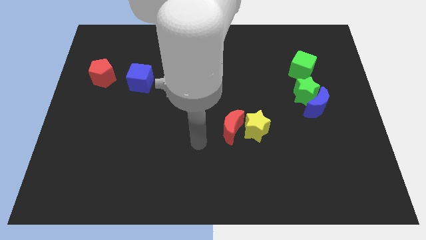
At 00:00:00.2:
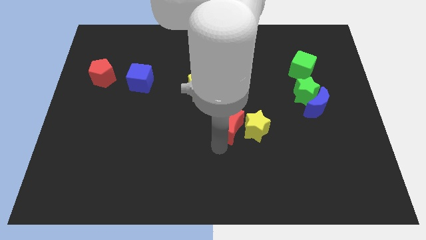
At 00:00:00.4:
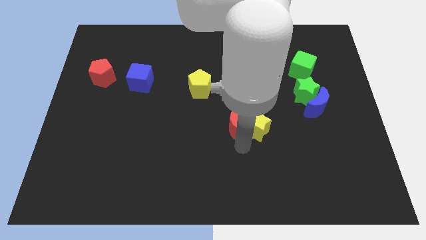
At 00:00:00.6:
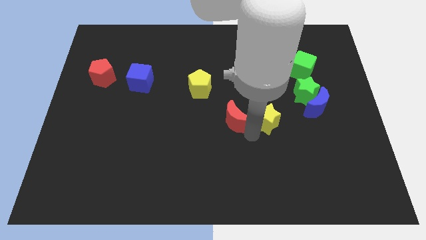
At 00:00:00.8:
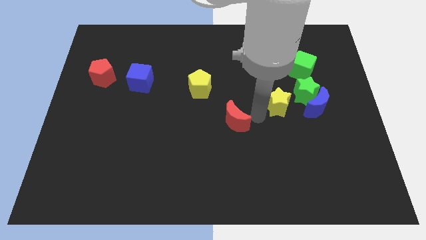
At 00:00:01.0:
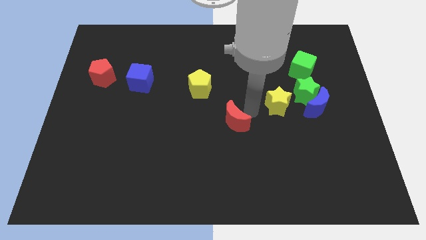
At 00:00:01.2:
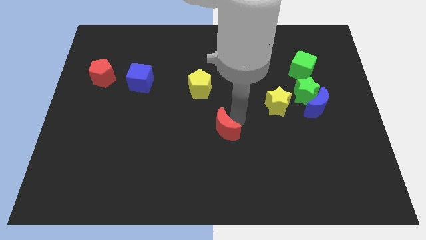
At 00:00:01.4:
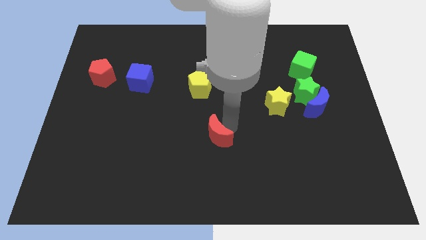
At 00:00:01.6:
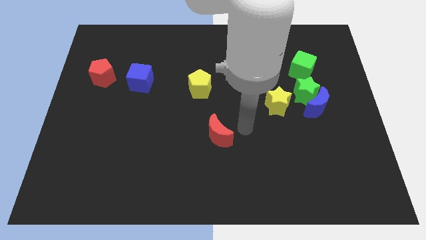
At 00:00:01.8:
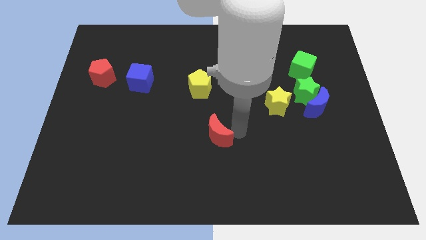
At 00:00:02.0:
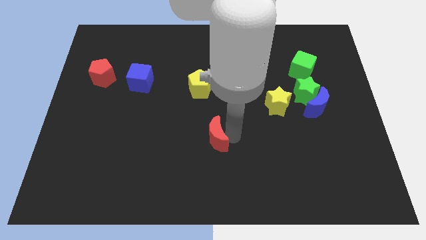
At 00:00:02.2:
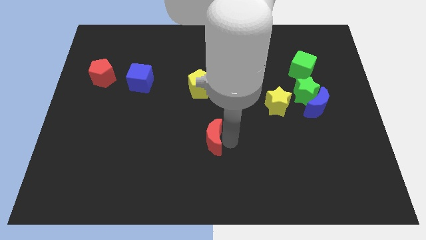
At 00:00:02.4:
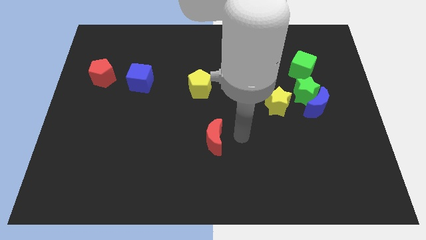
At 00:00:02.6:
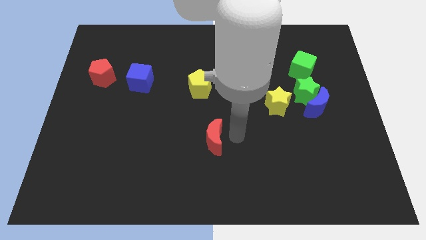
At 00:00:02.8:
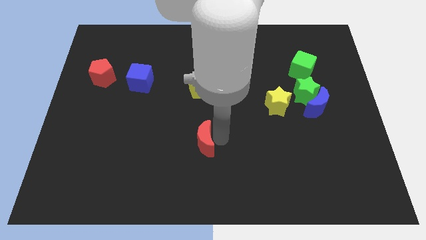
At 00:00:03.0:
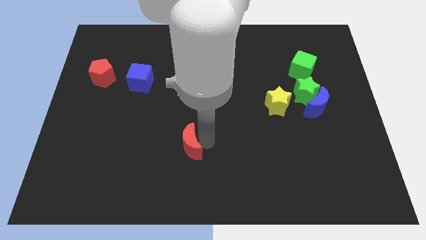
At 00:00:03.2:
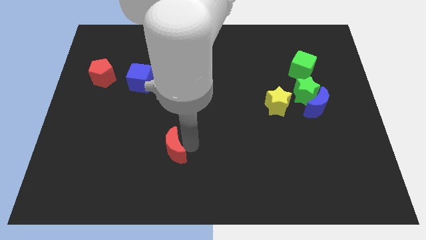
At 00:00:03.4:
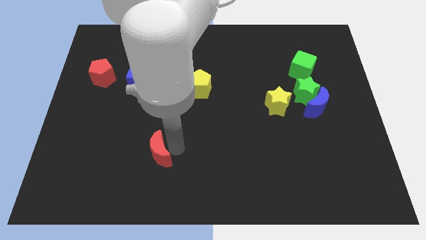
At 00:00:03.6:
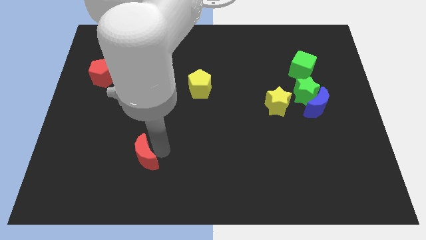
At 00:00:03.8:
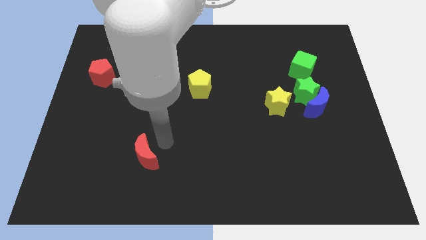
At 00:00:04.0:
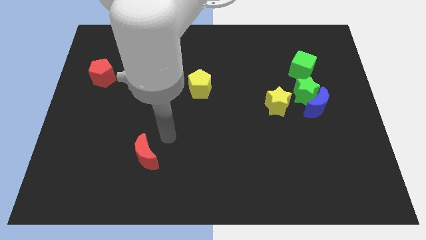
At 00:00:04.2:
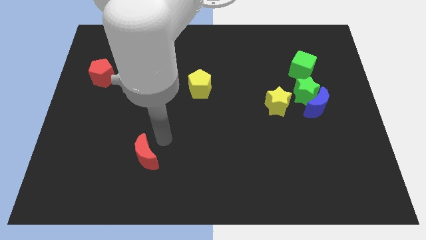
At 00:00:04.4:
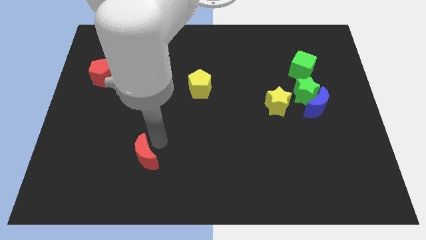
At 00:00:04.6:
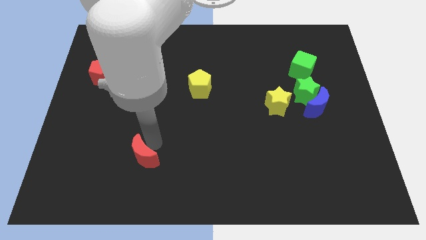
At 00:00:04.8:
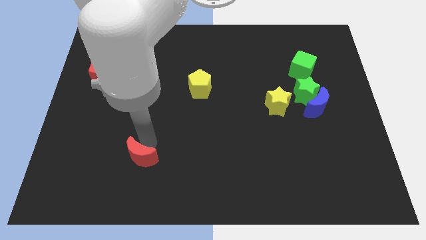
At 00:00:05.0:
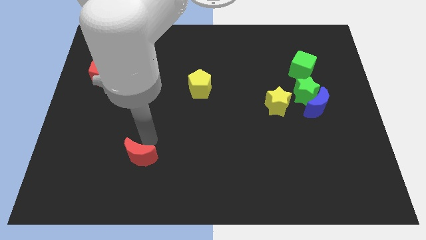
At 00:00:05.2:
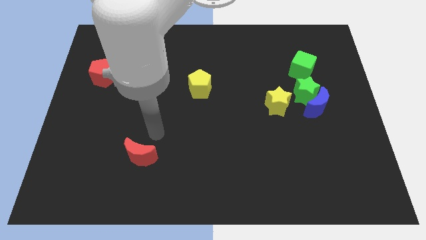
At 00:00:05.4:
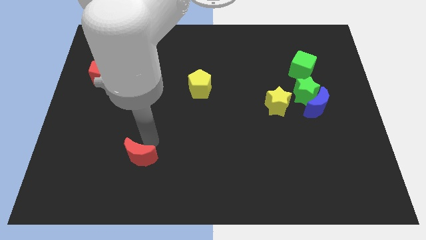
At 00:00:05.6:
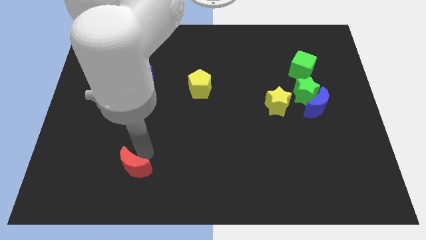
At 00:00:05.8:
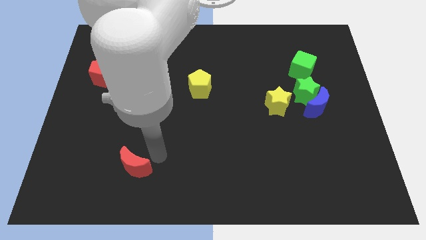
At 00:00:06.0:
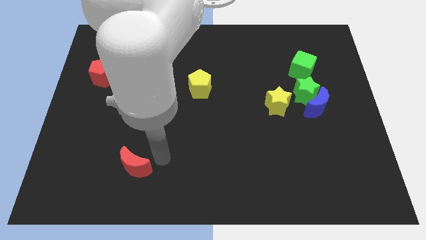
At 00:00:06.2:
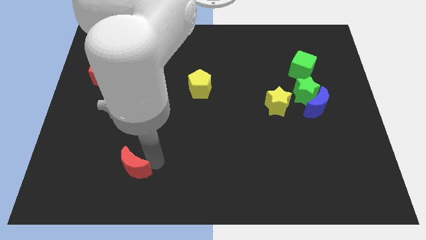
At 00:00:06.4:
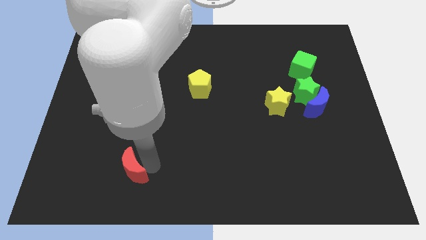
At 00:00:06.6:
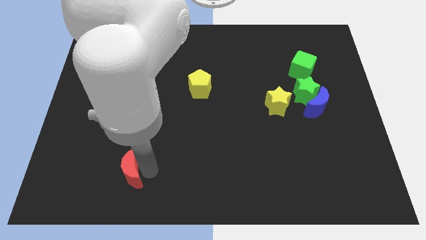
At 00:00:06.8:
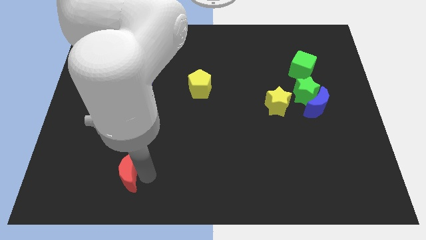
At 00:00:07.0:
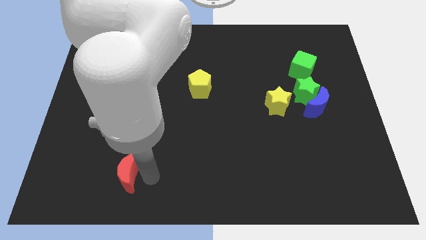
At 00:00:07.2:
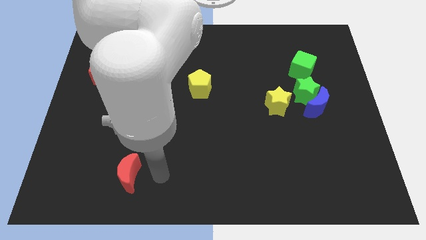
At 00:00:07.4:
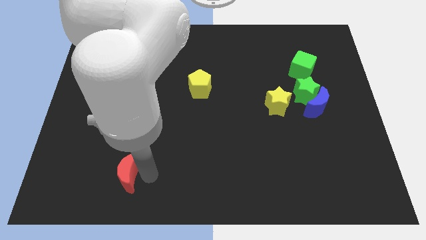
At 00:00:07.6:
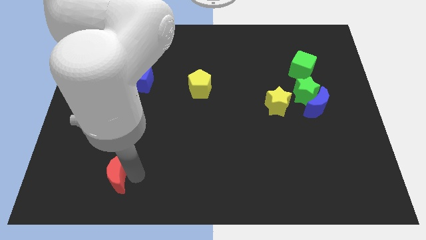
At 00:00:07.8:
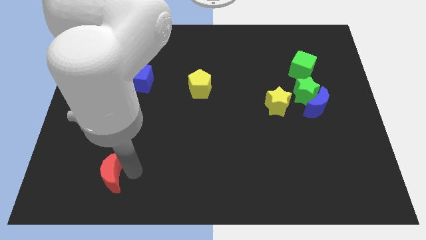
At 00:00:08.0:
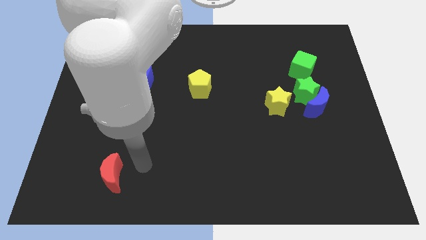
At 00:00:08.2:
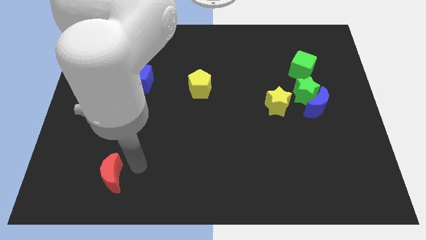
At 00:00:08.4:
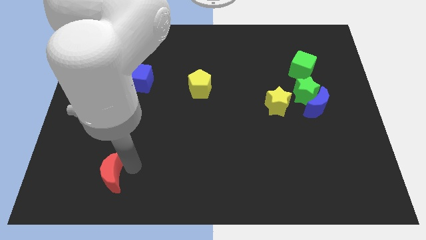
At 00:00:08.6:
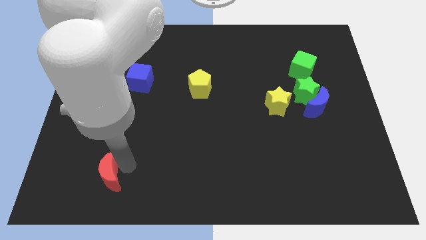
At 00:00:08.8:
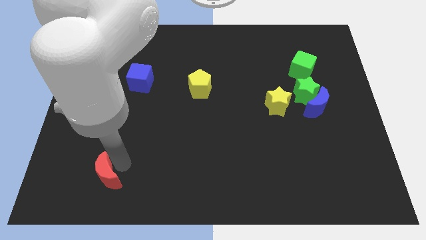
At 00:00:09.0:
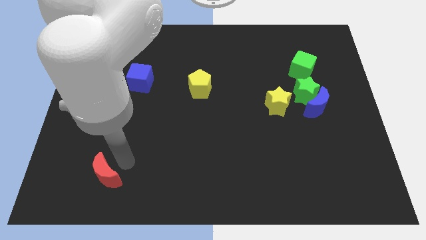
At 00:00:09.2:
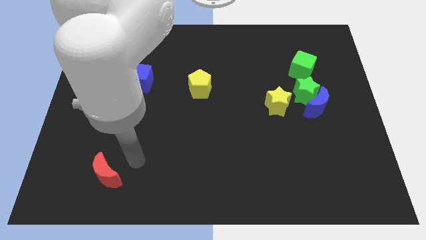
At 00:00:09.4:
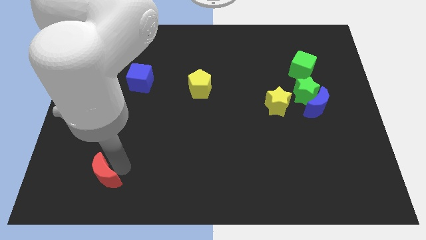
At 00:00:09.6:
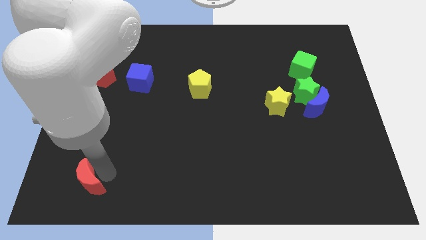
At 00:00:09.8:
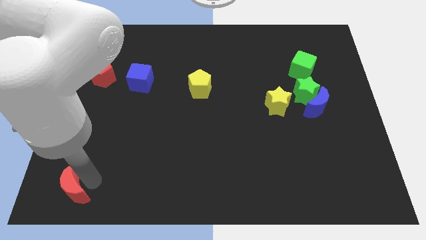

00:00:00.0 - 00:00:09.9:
slide the red moon to the lower left corner

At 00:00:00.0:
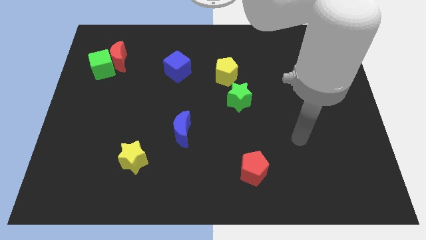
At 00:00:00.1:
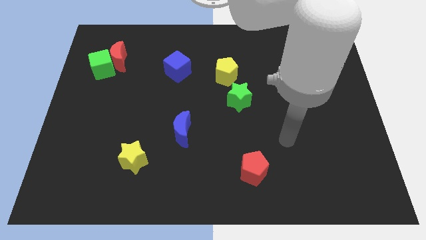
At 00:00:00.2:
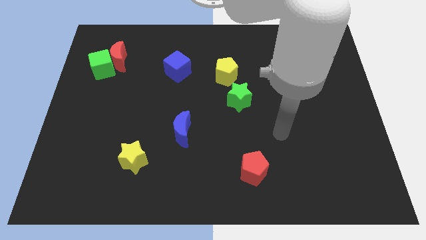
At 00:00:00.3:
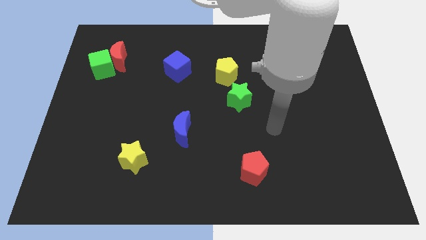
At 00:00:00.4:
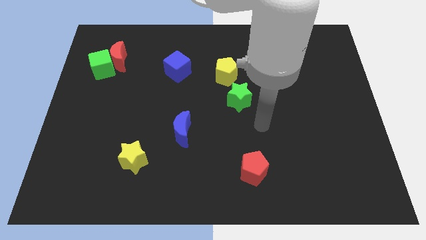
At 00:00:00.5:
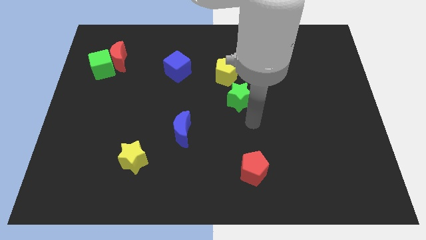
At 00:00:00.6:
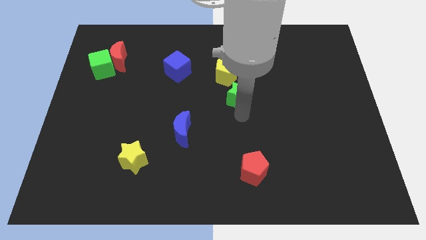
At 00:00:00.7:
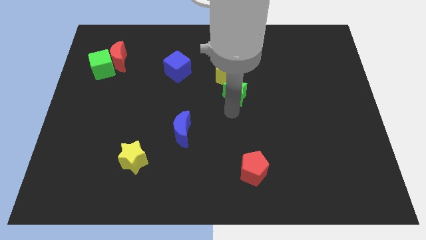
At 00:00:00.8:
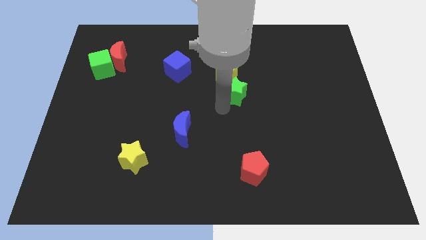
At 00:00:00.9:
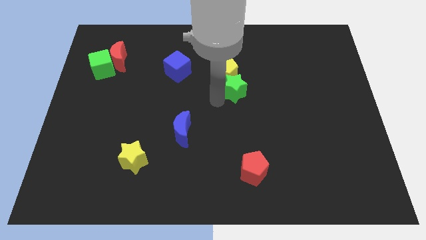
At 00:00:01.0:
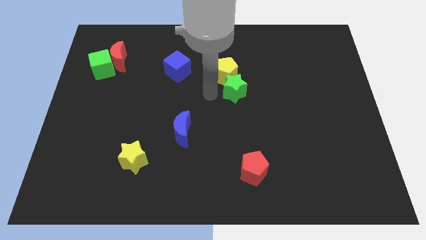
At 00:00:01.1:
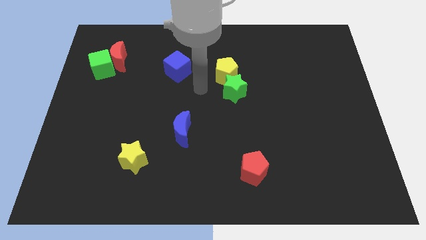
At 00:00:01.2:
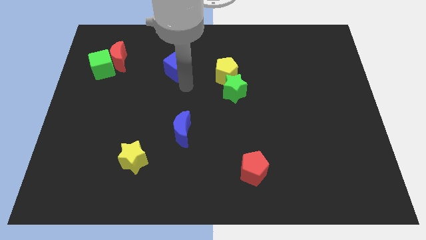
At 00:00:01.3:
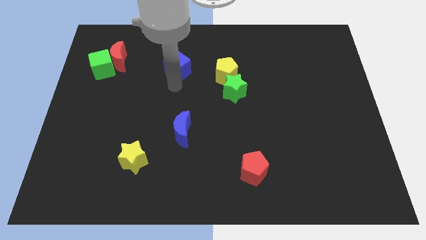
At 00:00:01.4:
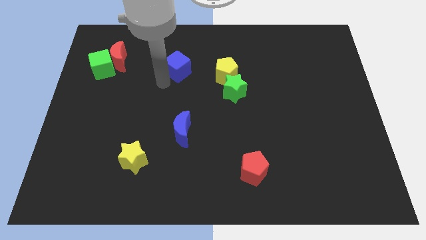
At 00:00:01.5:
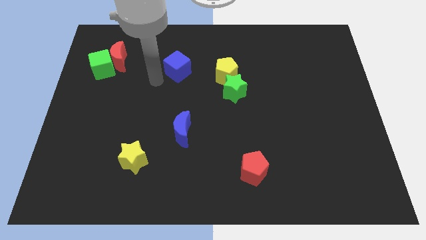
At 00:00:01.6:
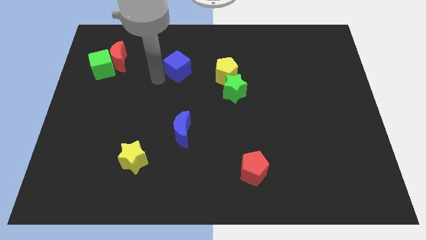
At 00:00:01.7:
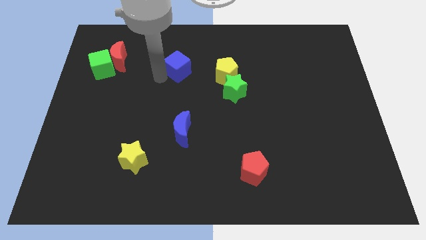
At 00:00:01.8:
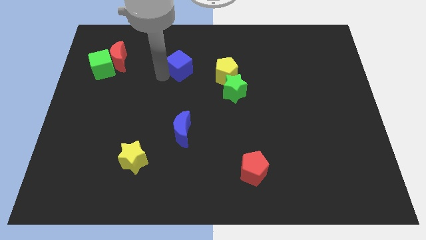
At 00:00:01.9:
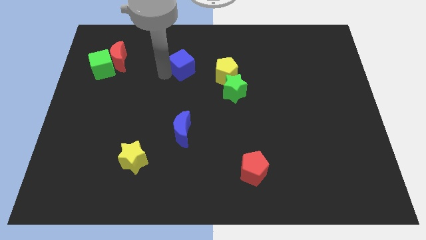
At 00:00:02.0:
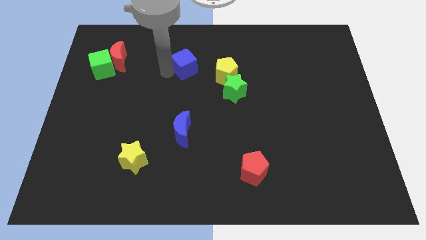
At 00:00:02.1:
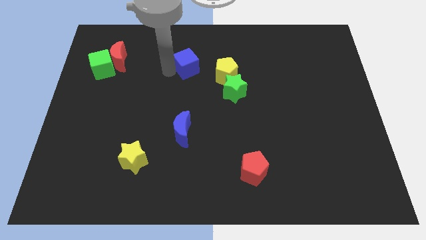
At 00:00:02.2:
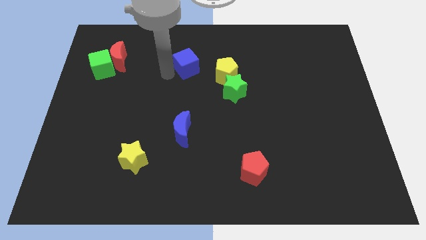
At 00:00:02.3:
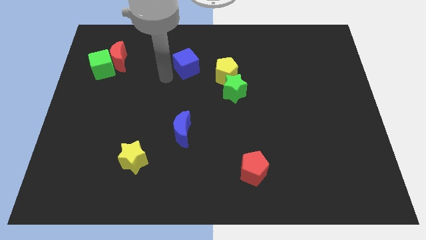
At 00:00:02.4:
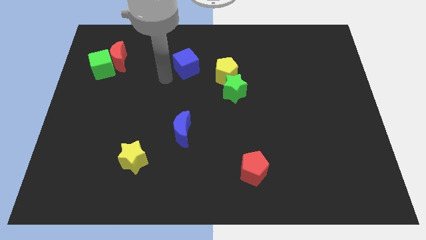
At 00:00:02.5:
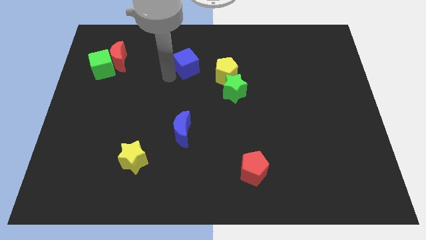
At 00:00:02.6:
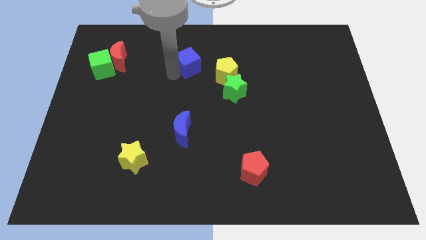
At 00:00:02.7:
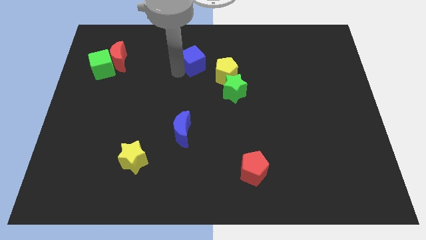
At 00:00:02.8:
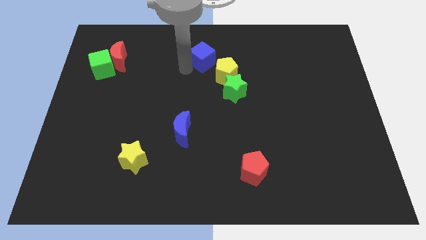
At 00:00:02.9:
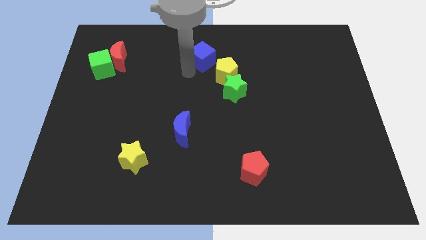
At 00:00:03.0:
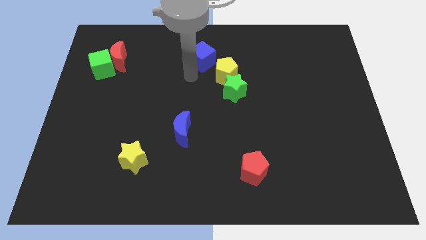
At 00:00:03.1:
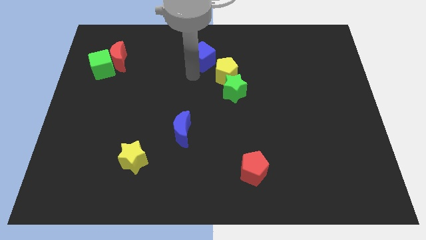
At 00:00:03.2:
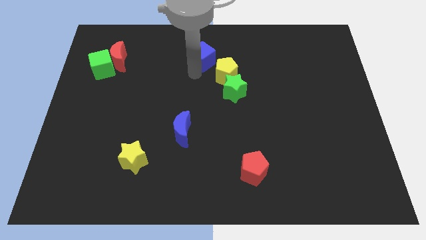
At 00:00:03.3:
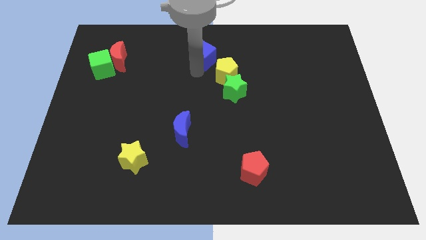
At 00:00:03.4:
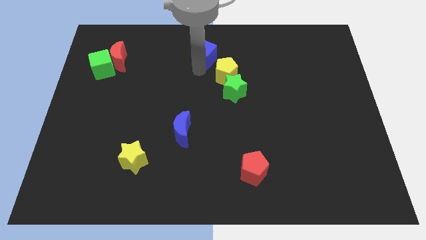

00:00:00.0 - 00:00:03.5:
slide the blue cube to the top
